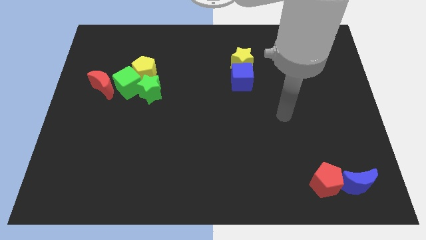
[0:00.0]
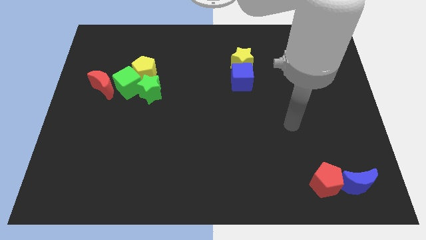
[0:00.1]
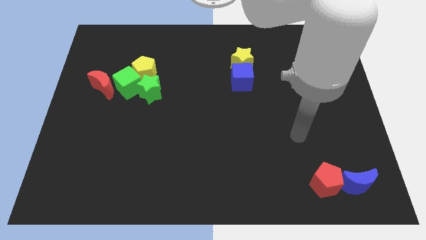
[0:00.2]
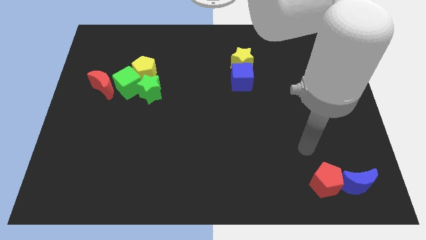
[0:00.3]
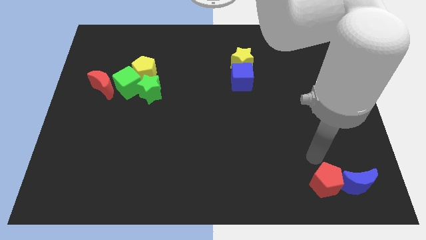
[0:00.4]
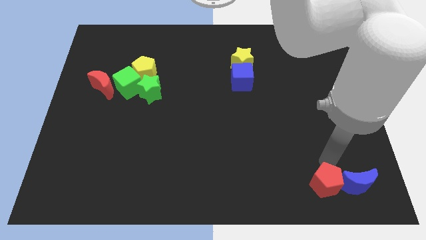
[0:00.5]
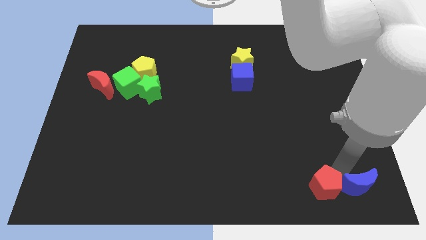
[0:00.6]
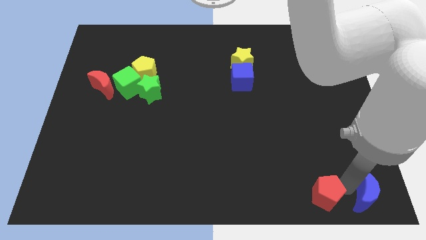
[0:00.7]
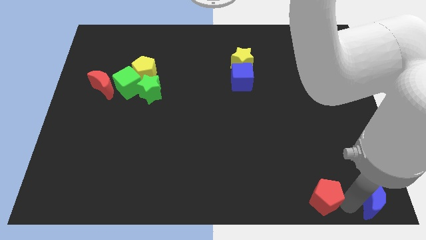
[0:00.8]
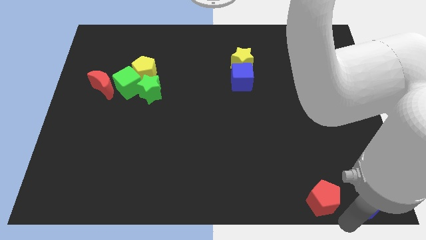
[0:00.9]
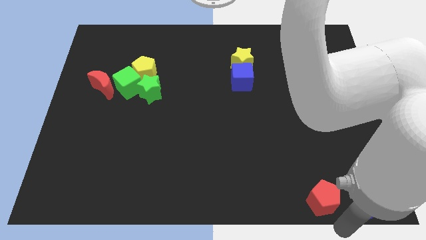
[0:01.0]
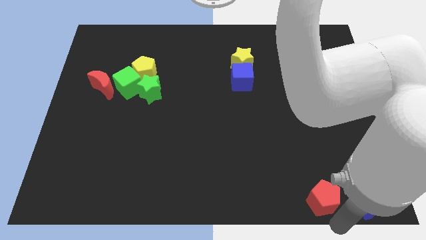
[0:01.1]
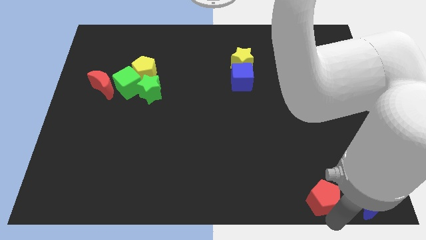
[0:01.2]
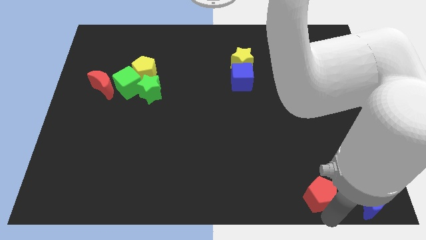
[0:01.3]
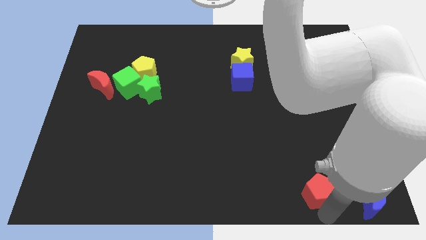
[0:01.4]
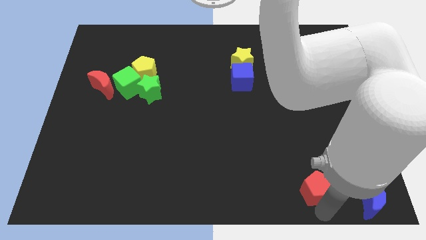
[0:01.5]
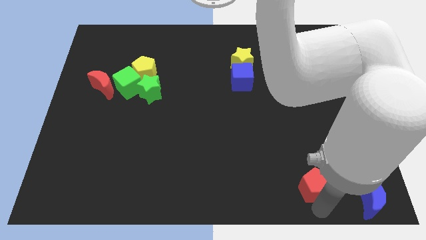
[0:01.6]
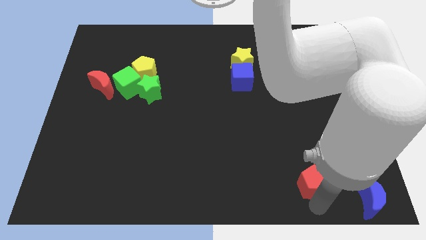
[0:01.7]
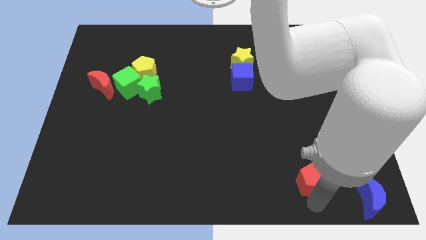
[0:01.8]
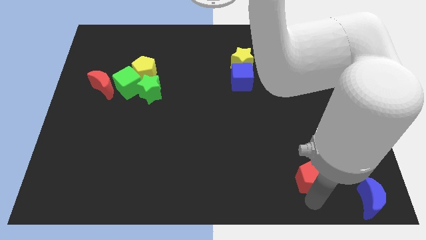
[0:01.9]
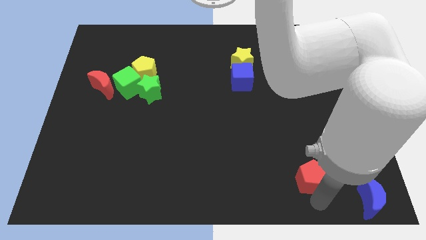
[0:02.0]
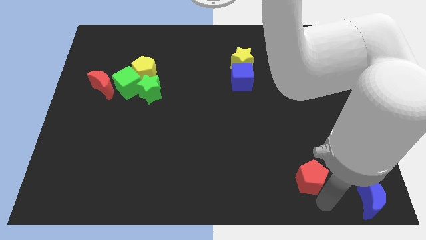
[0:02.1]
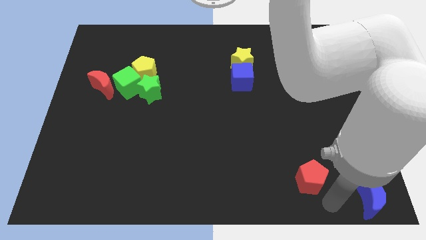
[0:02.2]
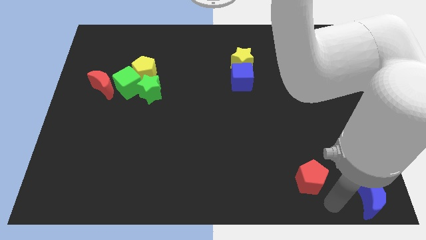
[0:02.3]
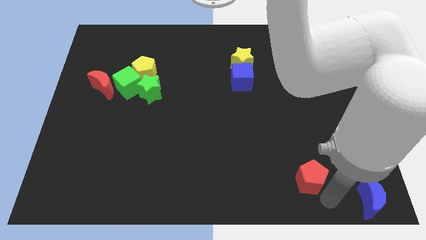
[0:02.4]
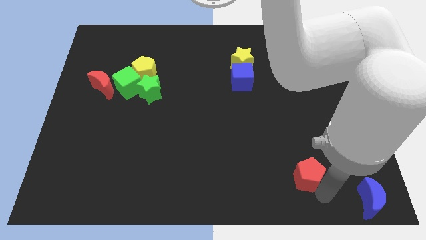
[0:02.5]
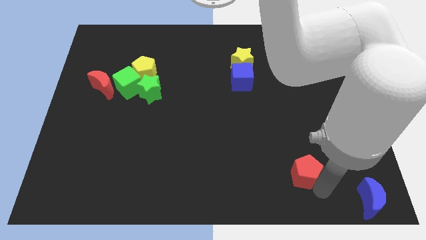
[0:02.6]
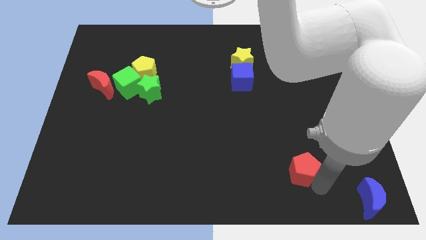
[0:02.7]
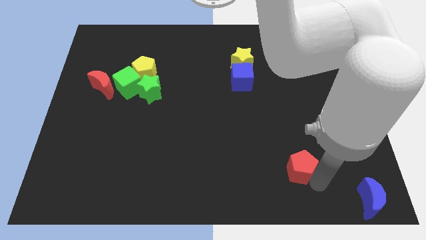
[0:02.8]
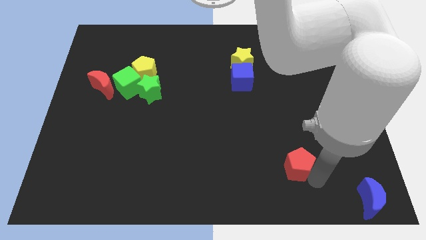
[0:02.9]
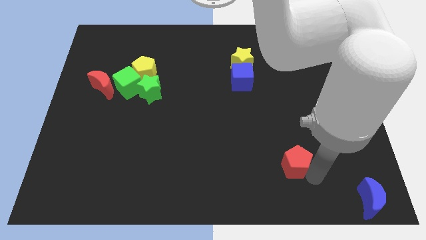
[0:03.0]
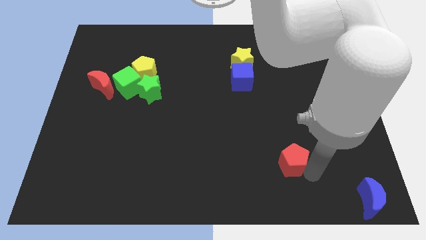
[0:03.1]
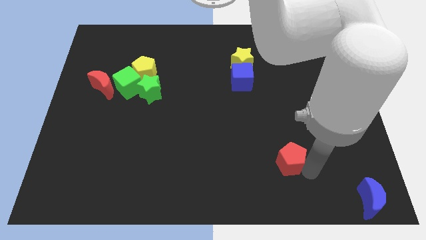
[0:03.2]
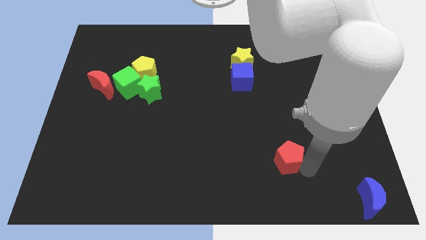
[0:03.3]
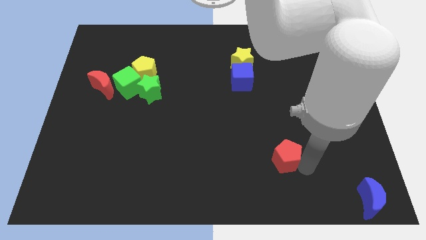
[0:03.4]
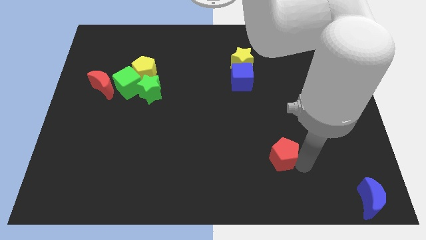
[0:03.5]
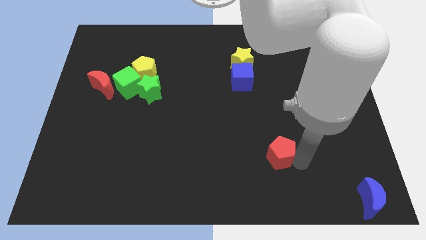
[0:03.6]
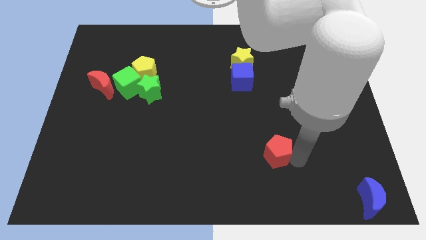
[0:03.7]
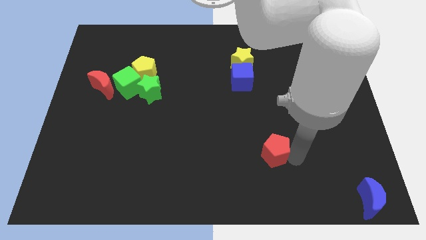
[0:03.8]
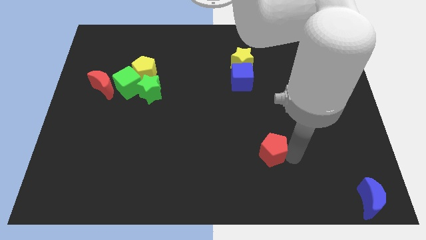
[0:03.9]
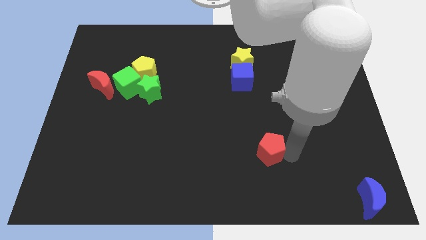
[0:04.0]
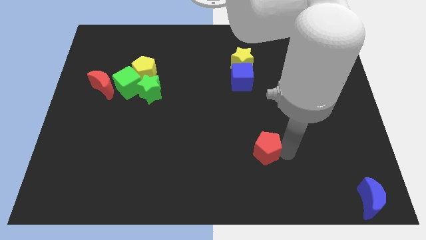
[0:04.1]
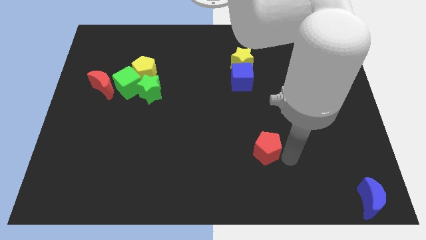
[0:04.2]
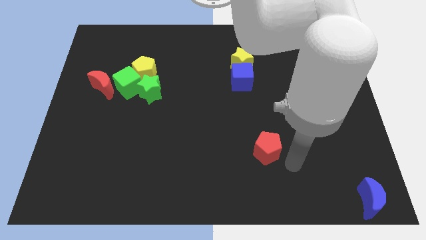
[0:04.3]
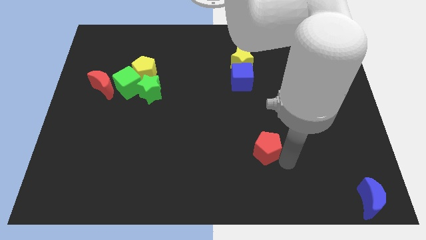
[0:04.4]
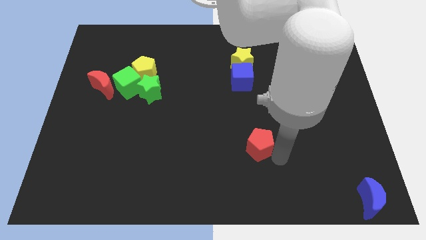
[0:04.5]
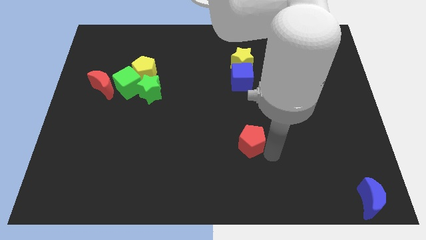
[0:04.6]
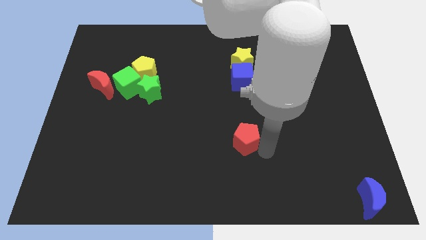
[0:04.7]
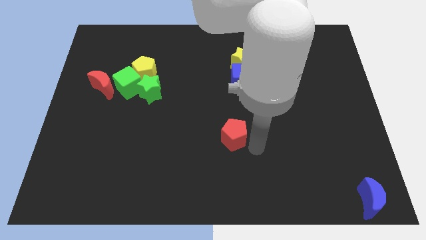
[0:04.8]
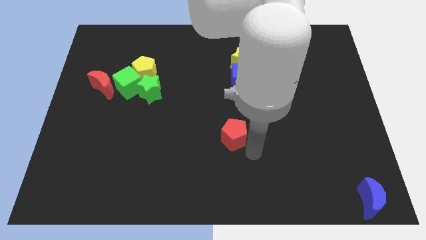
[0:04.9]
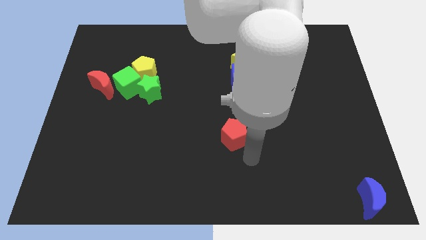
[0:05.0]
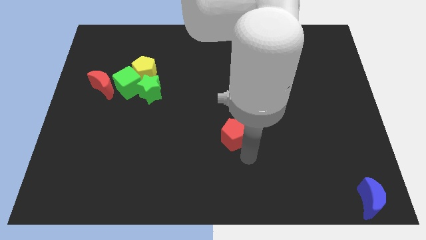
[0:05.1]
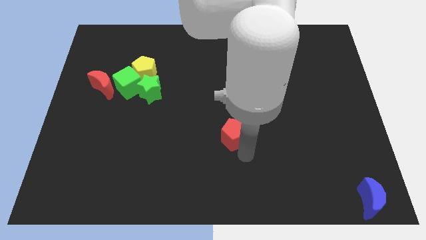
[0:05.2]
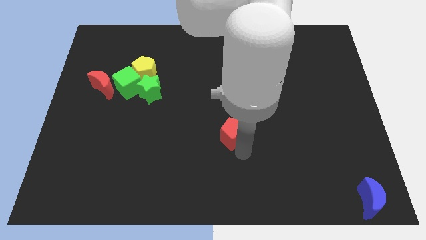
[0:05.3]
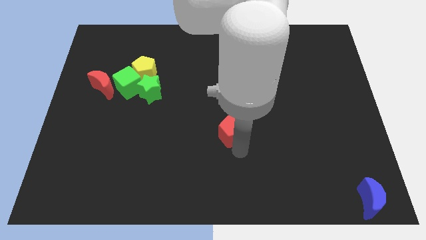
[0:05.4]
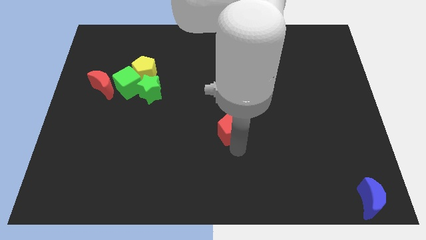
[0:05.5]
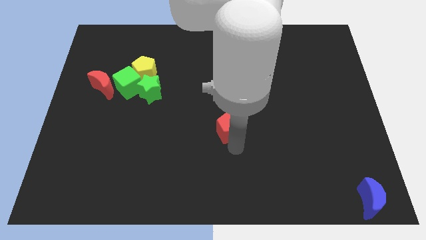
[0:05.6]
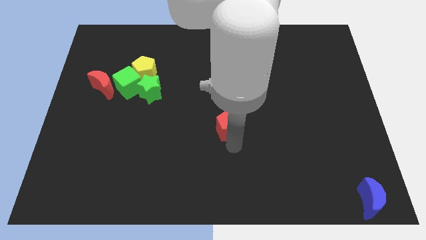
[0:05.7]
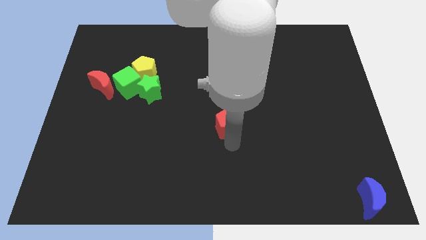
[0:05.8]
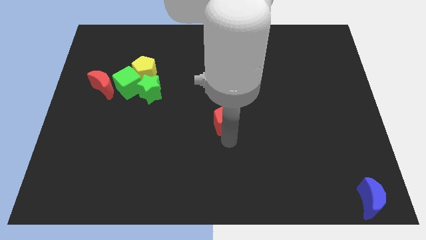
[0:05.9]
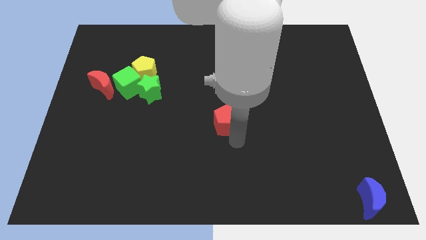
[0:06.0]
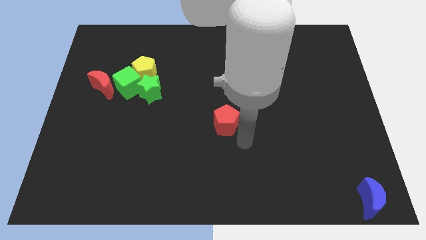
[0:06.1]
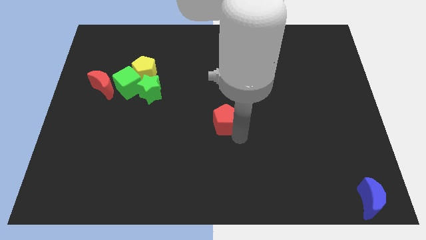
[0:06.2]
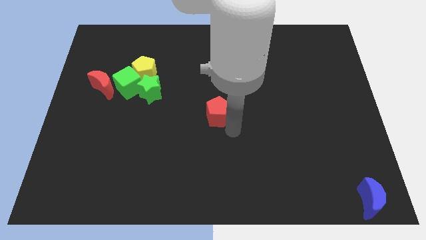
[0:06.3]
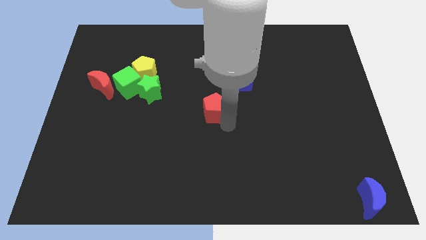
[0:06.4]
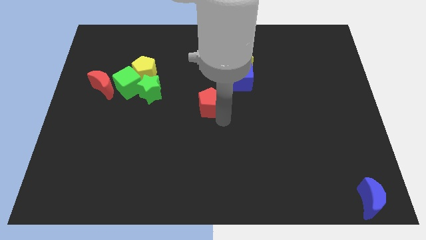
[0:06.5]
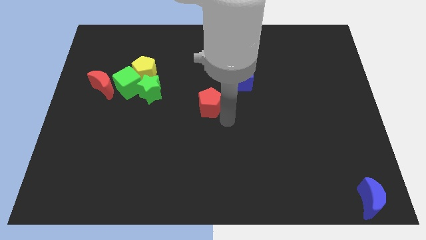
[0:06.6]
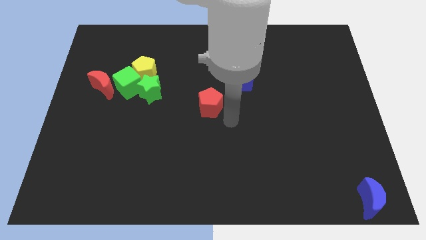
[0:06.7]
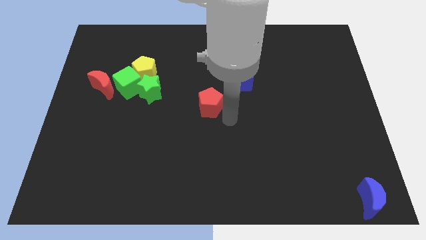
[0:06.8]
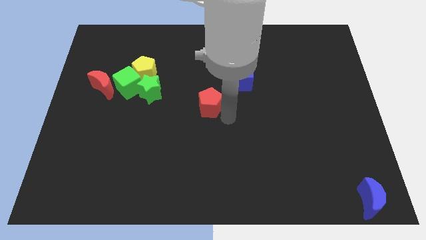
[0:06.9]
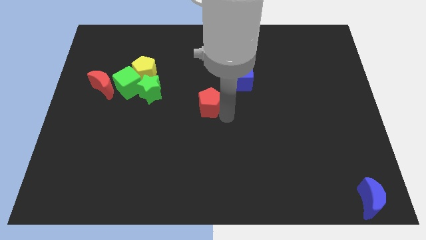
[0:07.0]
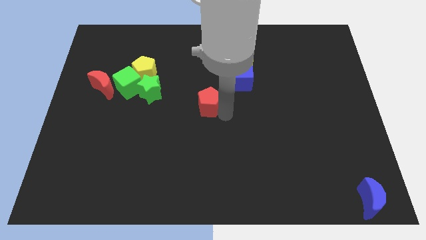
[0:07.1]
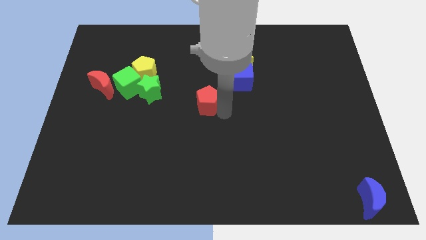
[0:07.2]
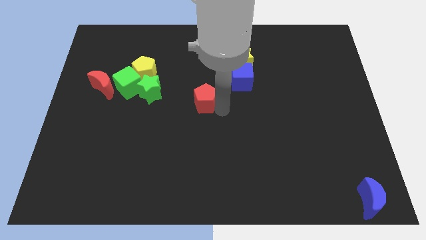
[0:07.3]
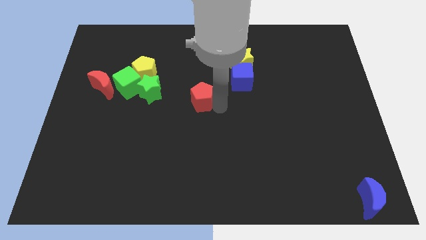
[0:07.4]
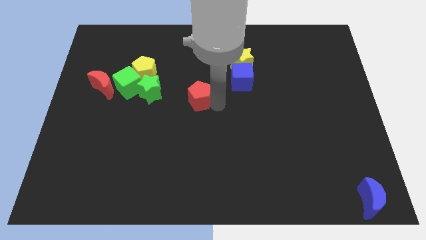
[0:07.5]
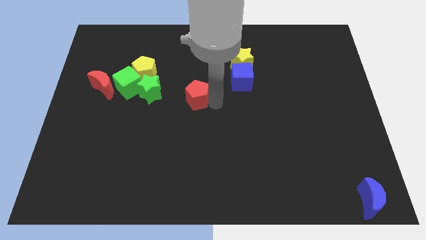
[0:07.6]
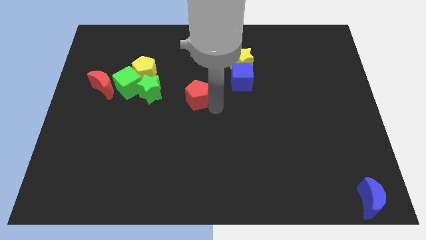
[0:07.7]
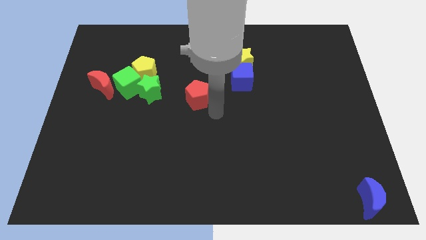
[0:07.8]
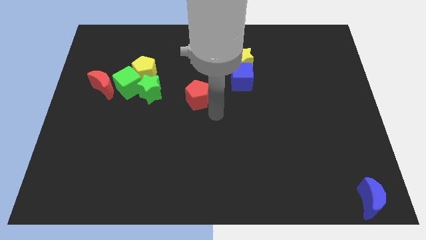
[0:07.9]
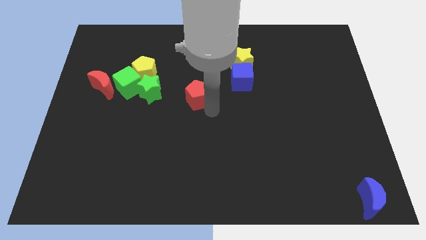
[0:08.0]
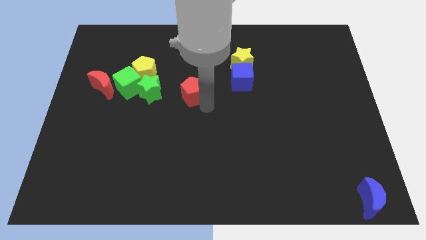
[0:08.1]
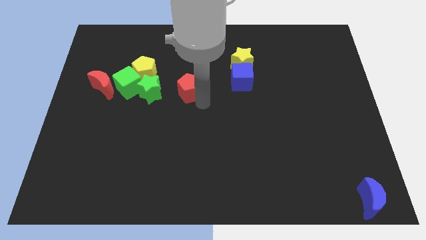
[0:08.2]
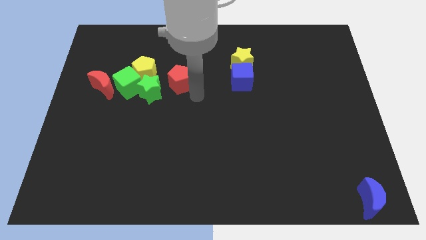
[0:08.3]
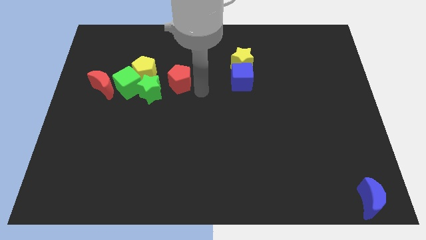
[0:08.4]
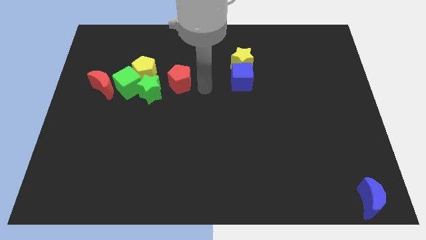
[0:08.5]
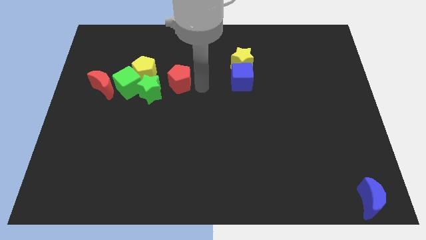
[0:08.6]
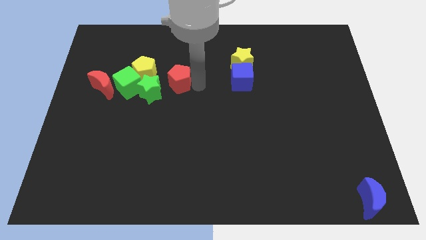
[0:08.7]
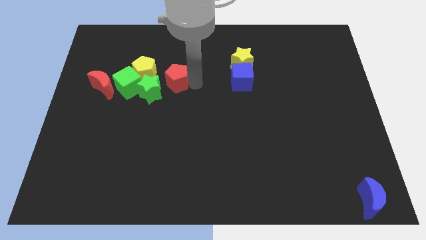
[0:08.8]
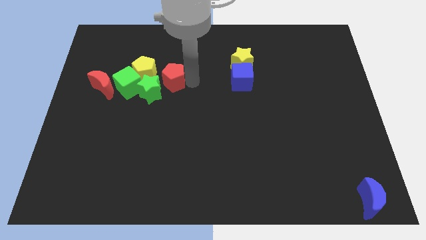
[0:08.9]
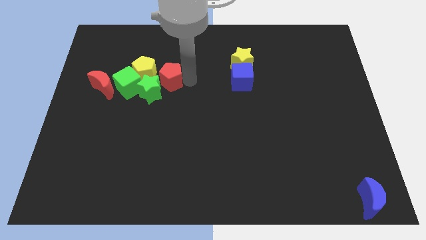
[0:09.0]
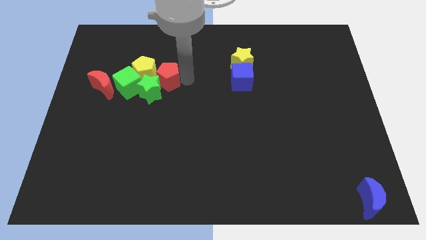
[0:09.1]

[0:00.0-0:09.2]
slide the red pentagon to the yellow pentagon
